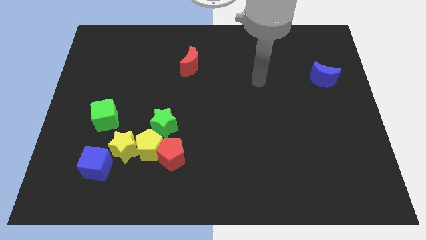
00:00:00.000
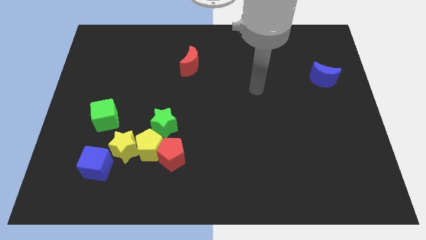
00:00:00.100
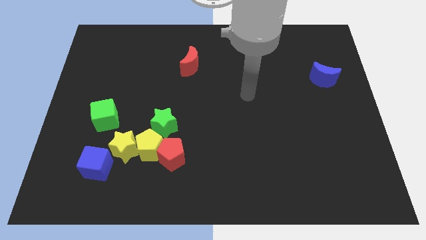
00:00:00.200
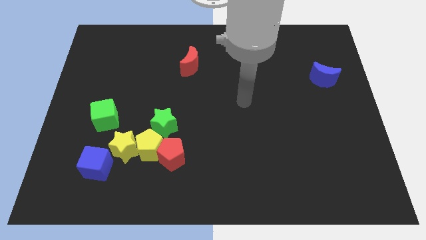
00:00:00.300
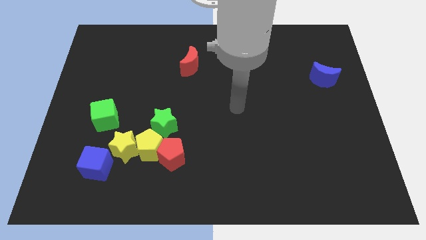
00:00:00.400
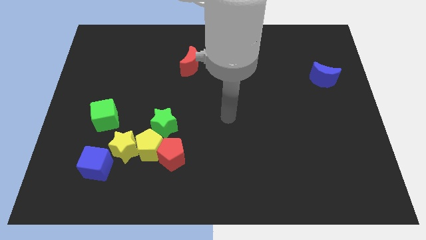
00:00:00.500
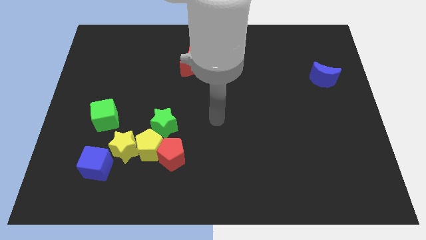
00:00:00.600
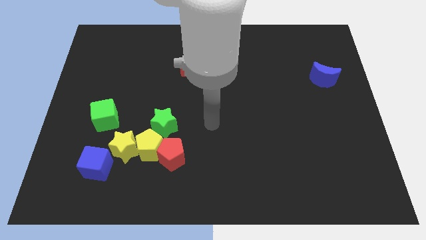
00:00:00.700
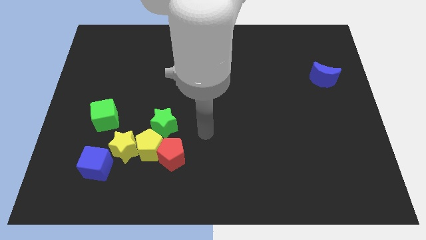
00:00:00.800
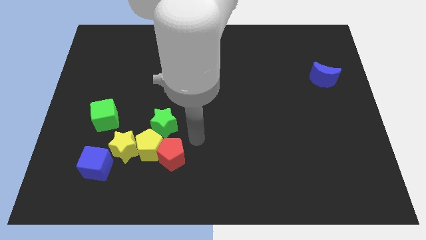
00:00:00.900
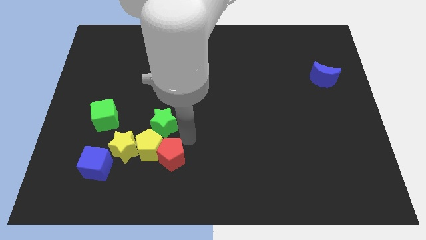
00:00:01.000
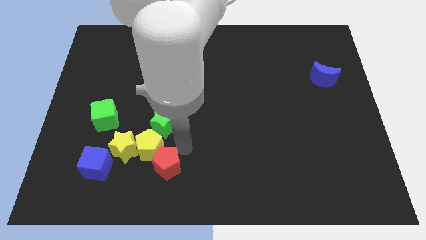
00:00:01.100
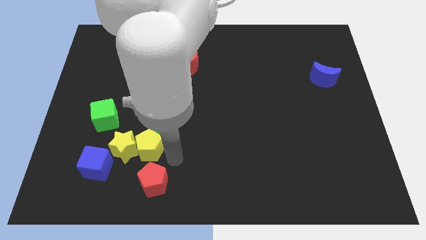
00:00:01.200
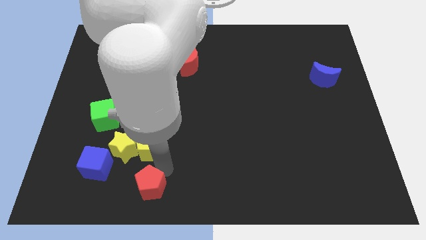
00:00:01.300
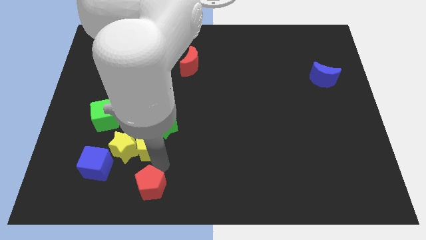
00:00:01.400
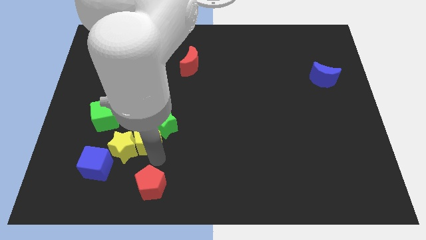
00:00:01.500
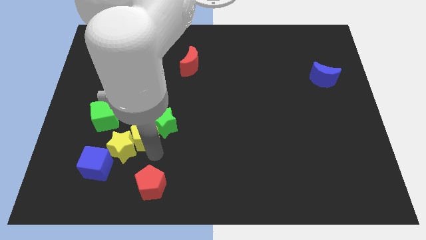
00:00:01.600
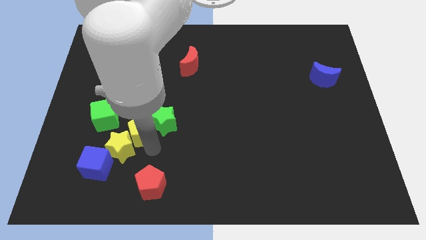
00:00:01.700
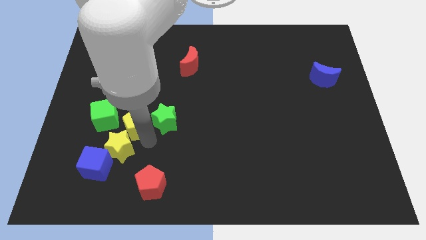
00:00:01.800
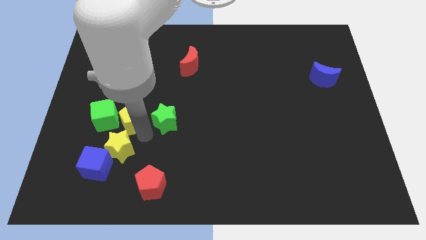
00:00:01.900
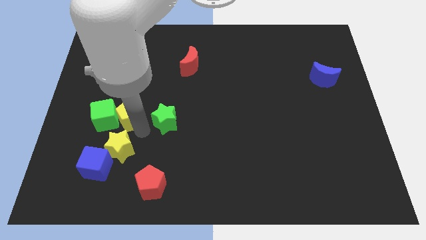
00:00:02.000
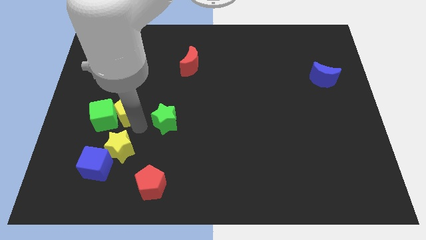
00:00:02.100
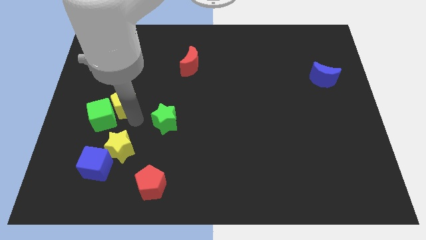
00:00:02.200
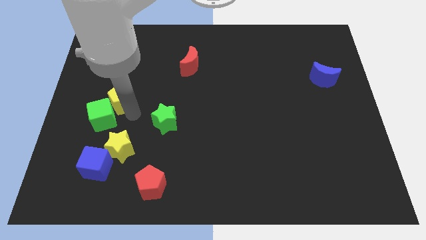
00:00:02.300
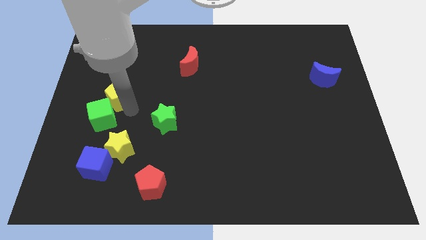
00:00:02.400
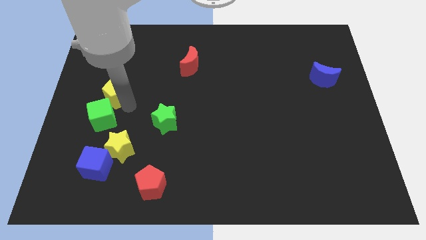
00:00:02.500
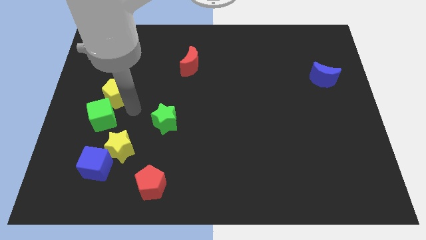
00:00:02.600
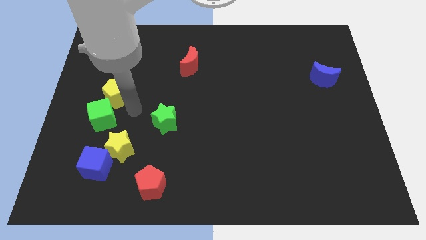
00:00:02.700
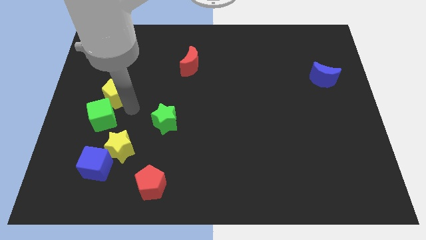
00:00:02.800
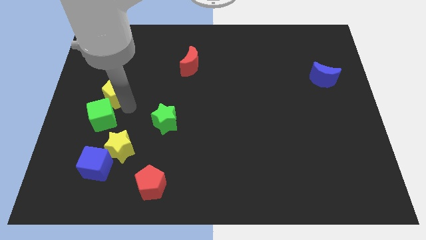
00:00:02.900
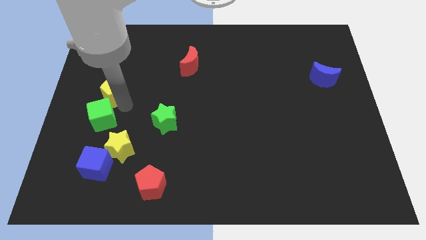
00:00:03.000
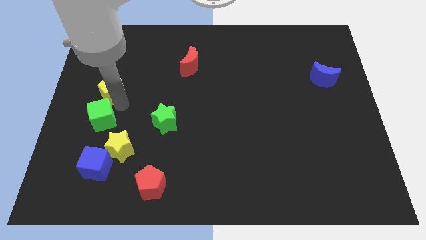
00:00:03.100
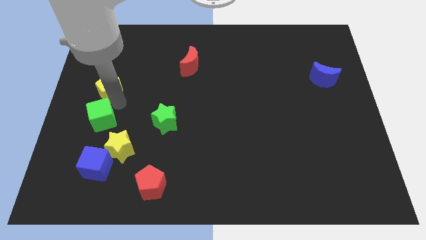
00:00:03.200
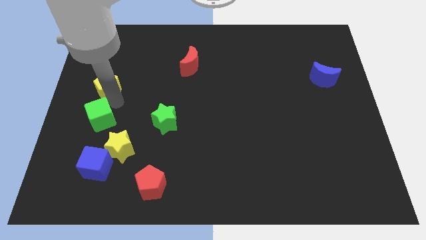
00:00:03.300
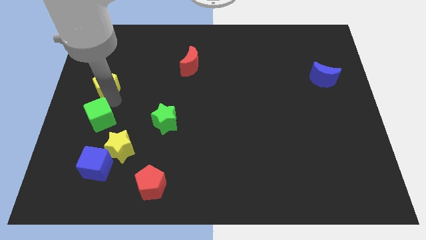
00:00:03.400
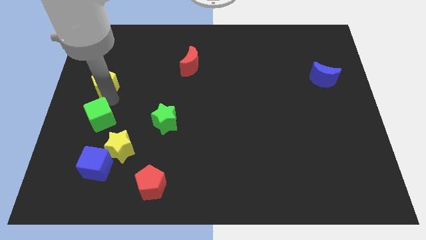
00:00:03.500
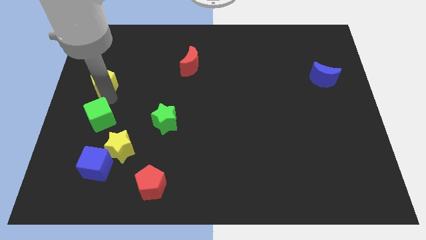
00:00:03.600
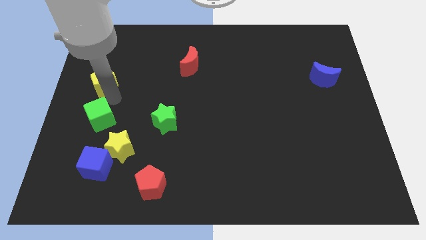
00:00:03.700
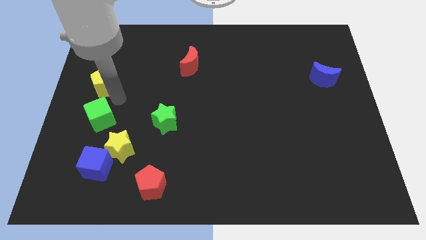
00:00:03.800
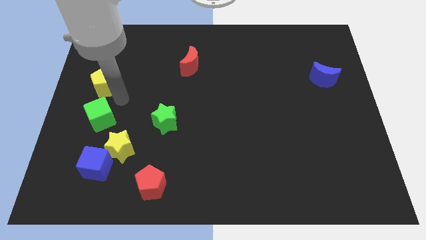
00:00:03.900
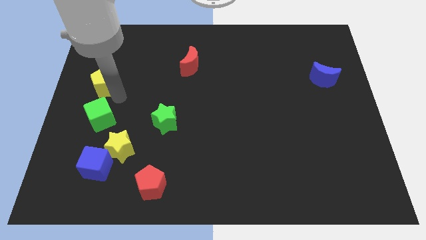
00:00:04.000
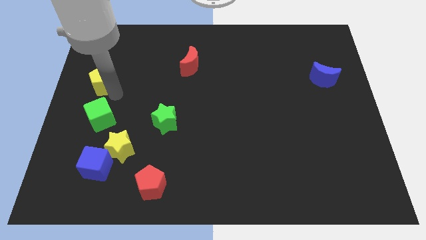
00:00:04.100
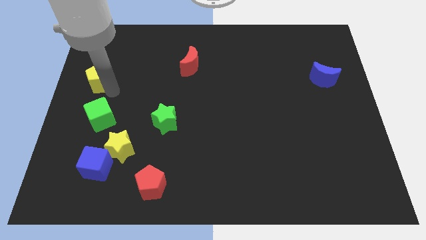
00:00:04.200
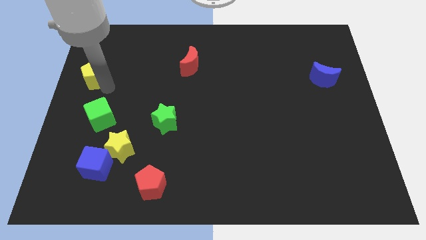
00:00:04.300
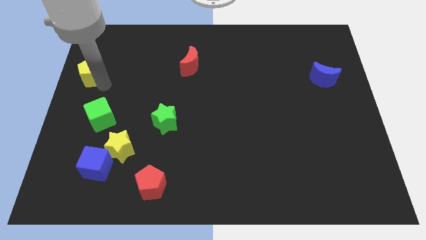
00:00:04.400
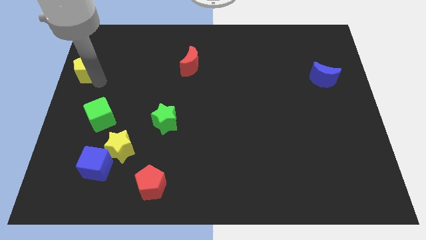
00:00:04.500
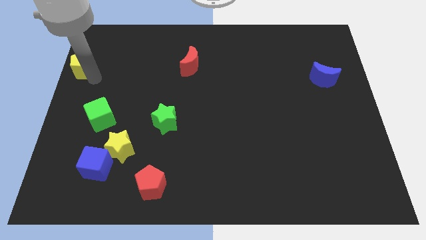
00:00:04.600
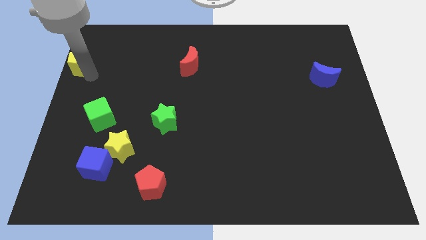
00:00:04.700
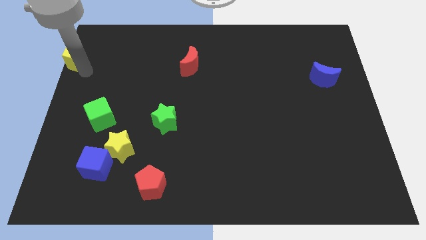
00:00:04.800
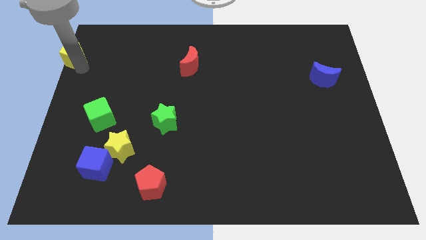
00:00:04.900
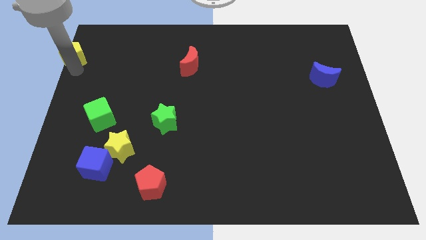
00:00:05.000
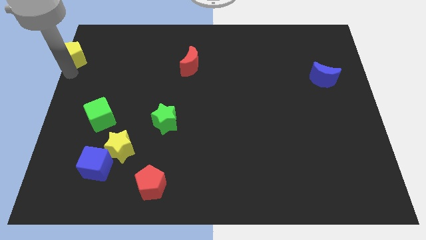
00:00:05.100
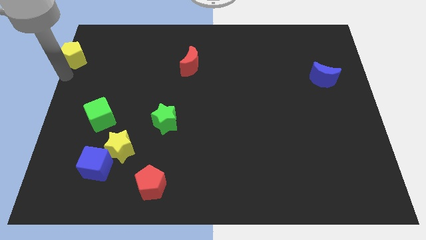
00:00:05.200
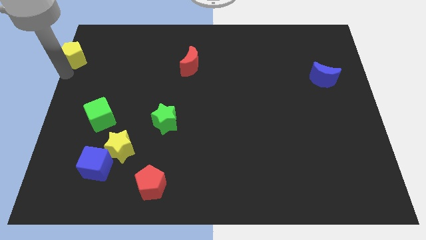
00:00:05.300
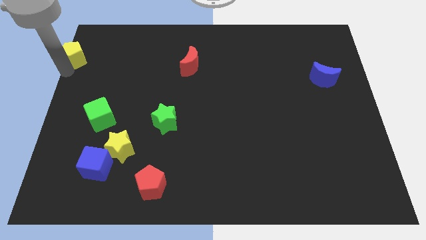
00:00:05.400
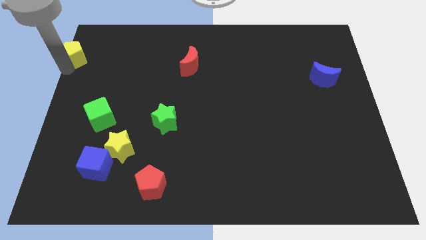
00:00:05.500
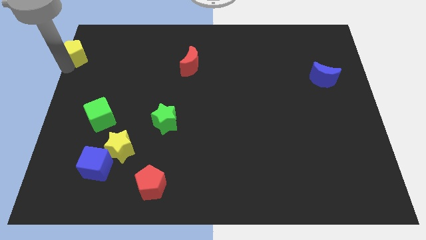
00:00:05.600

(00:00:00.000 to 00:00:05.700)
slide the yellow pentagon to the top left of the board

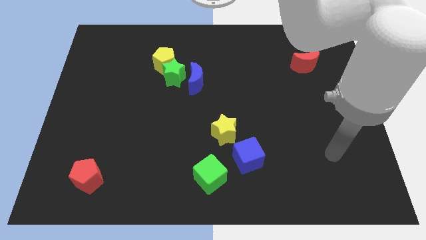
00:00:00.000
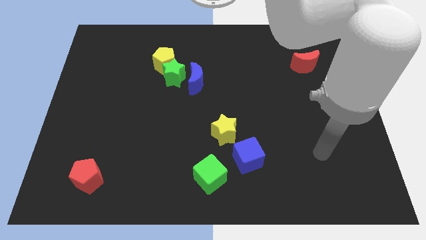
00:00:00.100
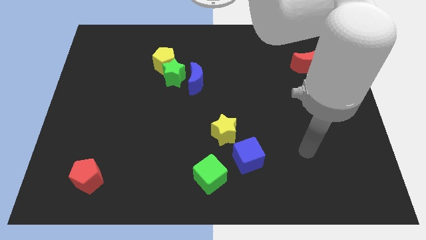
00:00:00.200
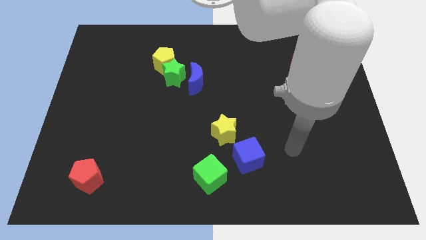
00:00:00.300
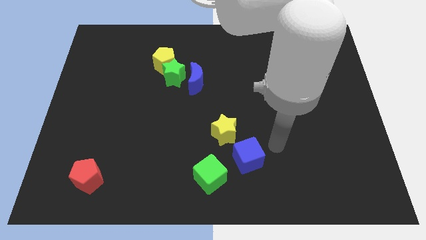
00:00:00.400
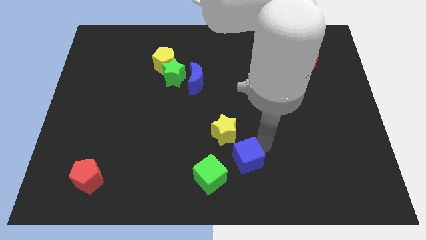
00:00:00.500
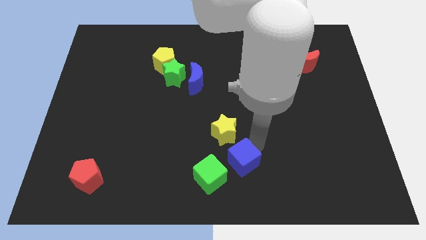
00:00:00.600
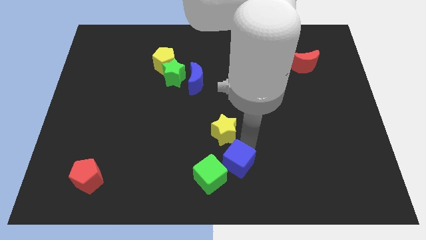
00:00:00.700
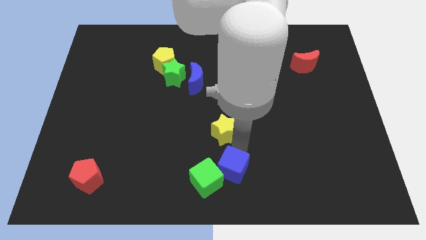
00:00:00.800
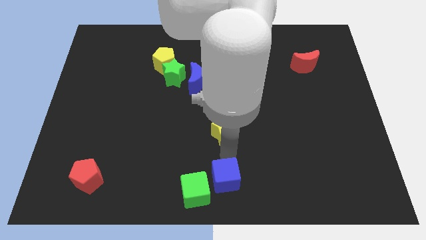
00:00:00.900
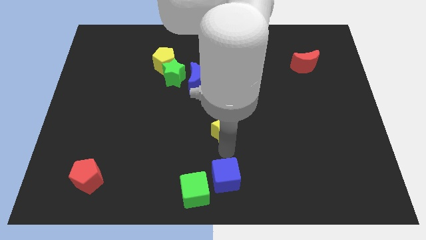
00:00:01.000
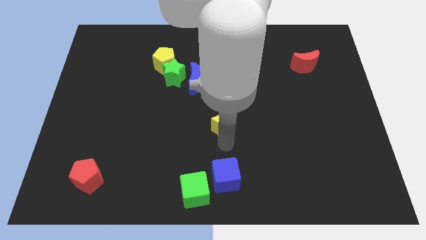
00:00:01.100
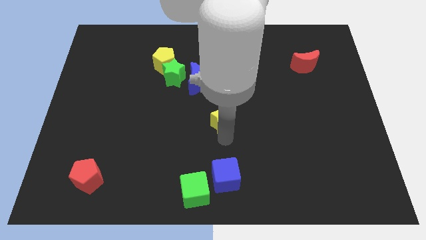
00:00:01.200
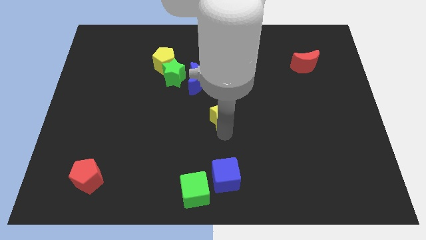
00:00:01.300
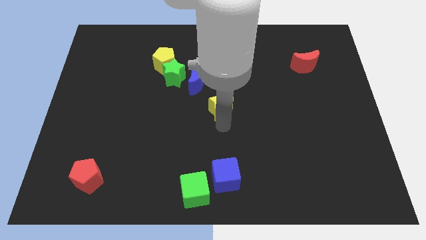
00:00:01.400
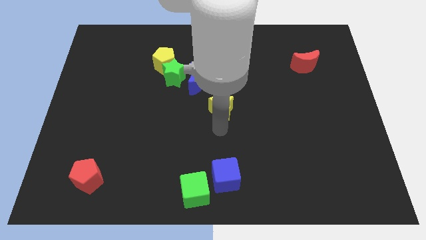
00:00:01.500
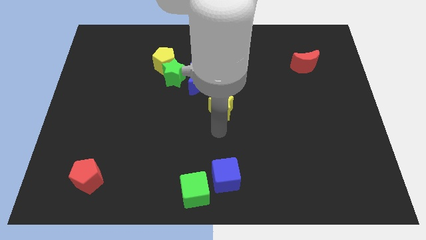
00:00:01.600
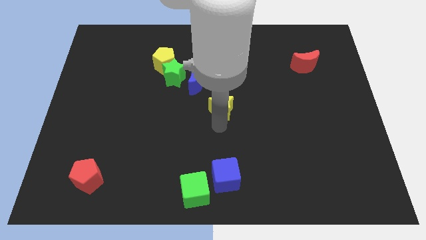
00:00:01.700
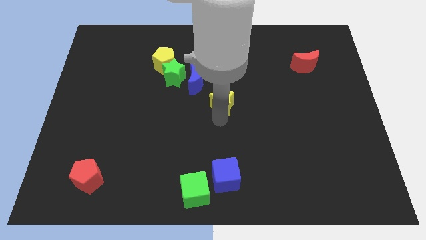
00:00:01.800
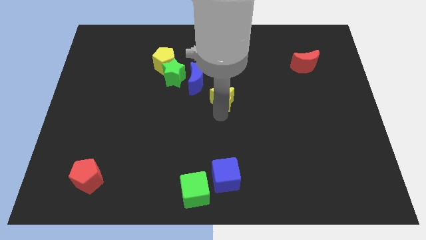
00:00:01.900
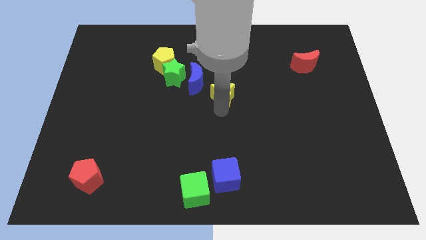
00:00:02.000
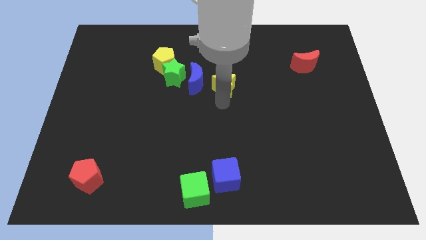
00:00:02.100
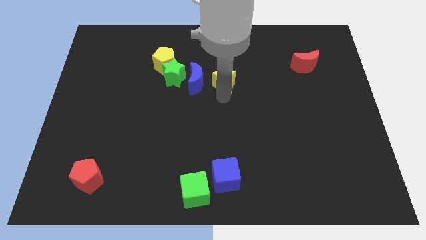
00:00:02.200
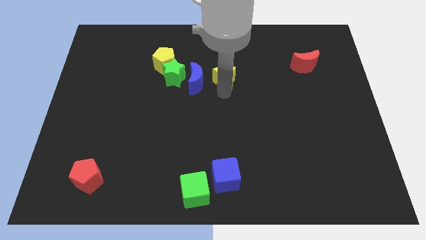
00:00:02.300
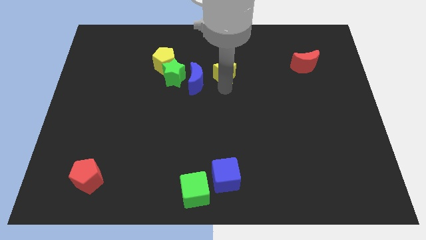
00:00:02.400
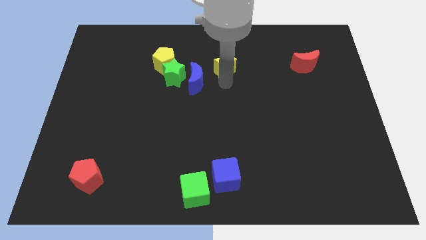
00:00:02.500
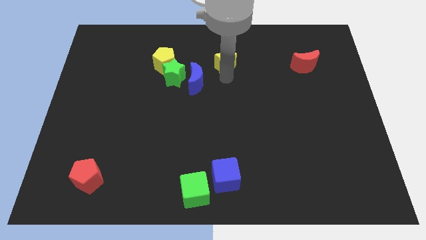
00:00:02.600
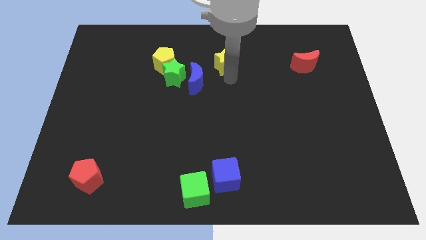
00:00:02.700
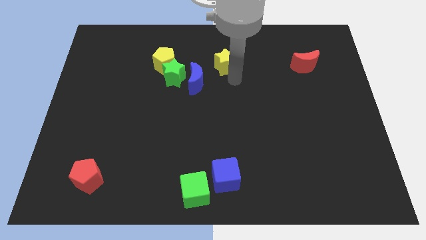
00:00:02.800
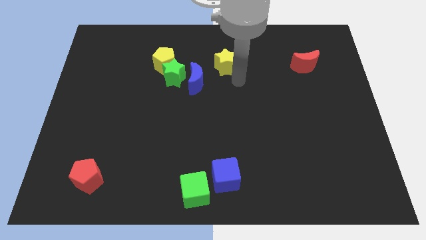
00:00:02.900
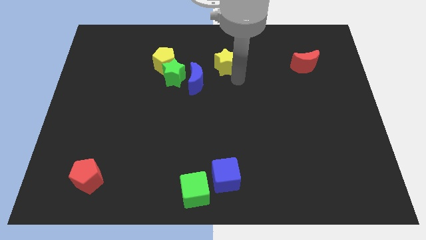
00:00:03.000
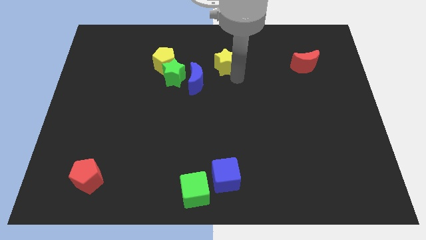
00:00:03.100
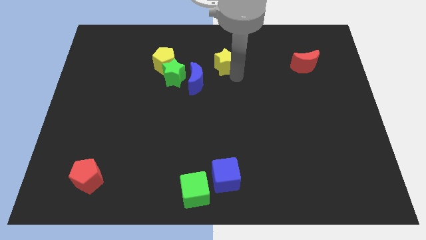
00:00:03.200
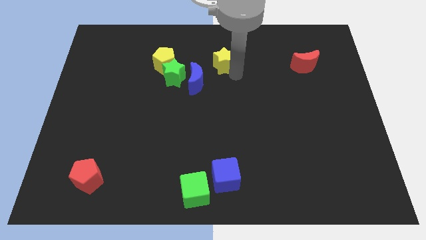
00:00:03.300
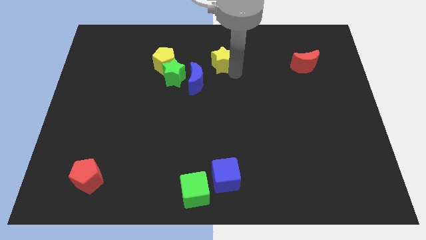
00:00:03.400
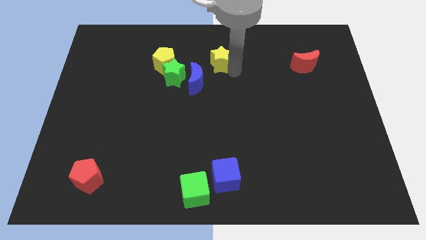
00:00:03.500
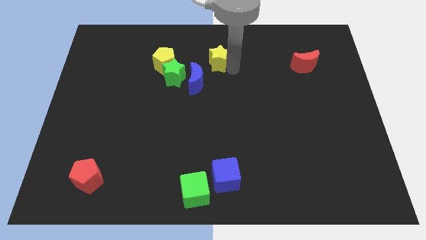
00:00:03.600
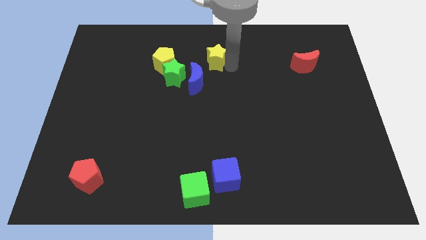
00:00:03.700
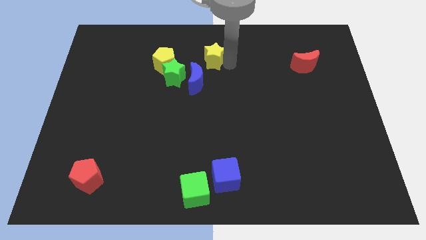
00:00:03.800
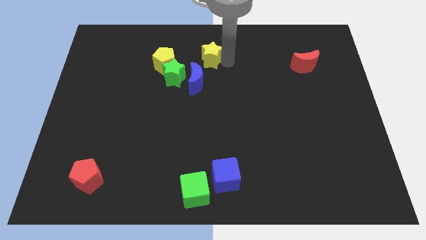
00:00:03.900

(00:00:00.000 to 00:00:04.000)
put the yellow star to the towards your base
